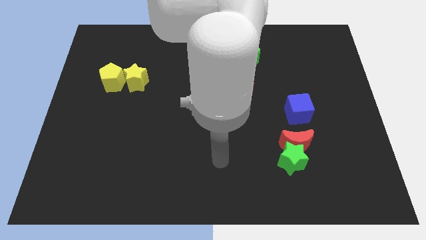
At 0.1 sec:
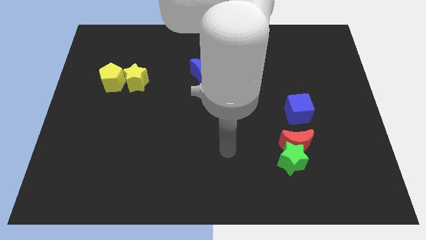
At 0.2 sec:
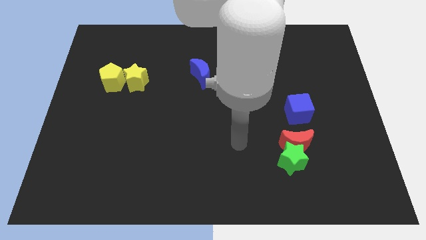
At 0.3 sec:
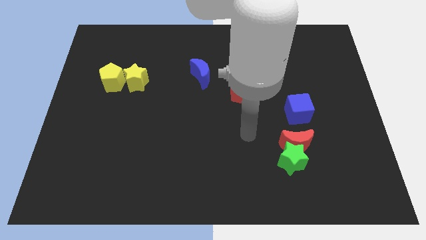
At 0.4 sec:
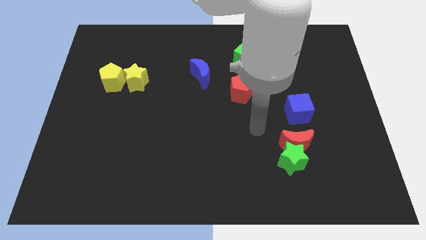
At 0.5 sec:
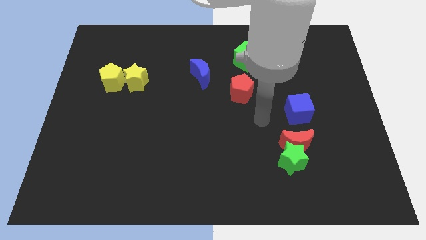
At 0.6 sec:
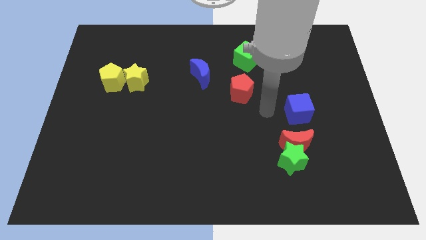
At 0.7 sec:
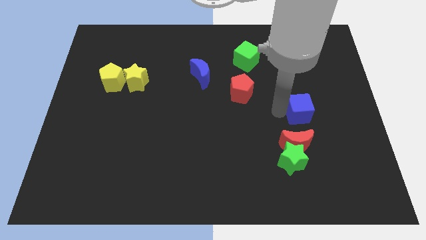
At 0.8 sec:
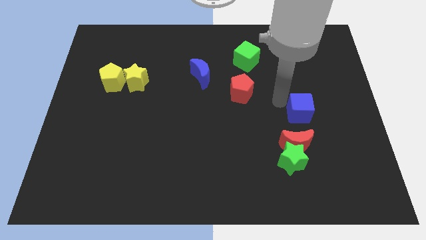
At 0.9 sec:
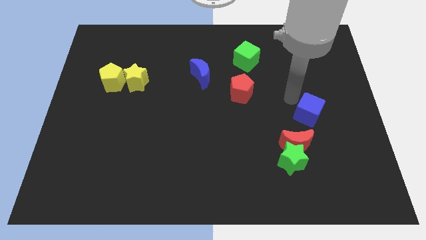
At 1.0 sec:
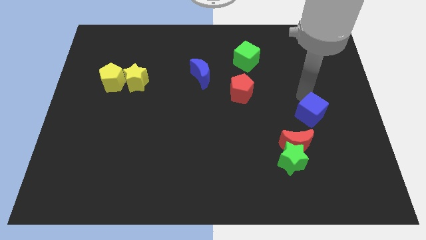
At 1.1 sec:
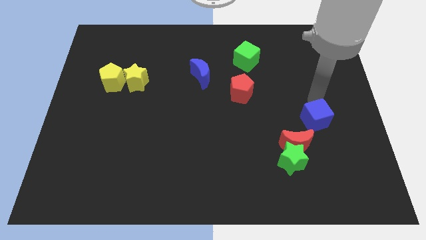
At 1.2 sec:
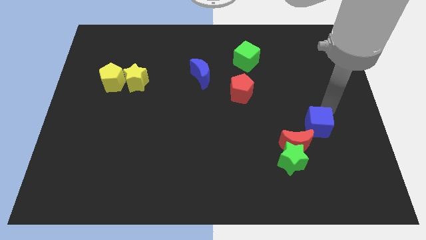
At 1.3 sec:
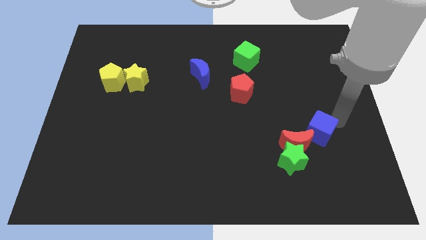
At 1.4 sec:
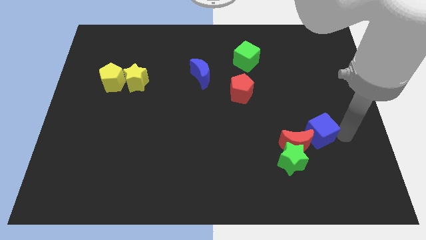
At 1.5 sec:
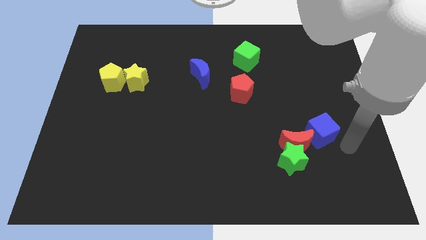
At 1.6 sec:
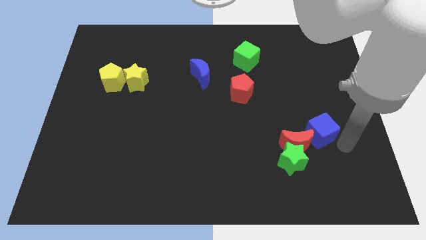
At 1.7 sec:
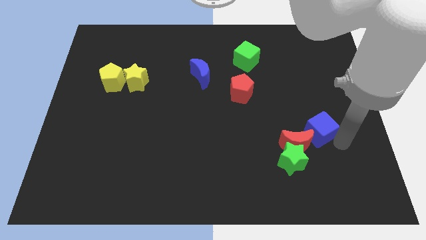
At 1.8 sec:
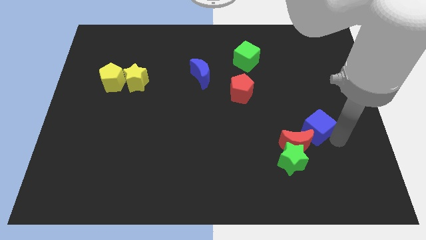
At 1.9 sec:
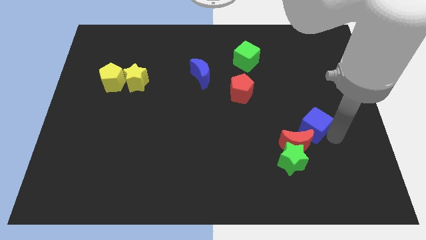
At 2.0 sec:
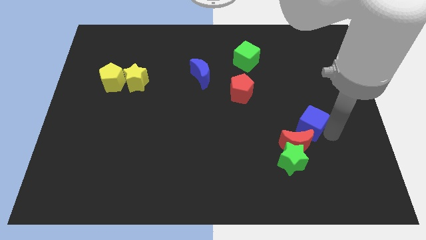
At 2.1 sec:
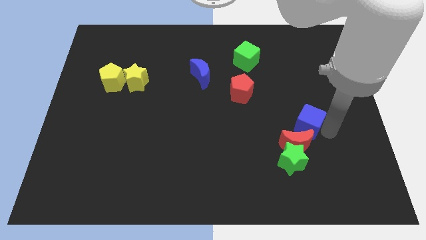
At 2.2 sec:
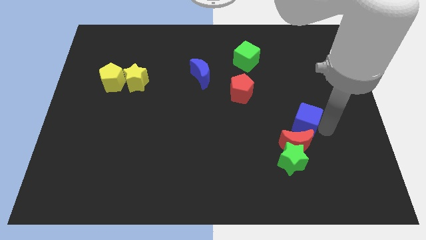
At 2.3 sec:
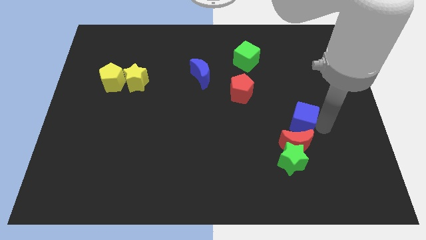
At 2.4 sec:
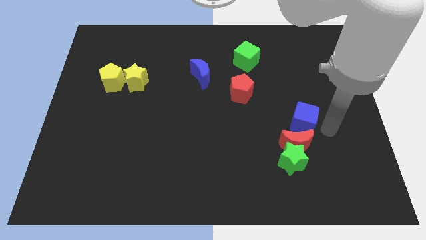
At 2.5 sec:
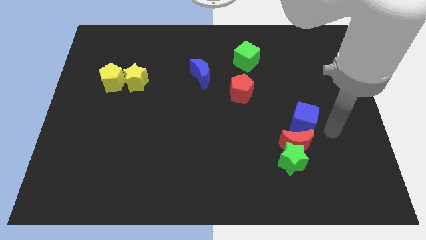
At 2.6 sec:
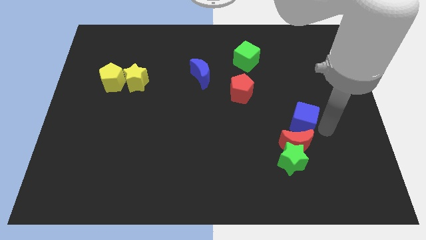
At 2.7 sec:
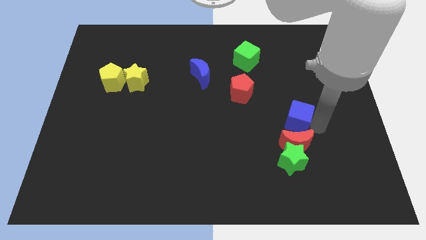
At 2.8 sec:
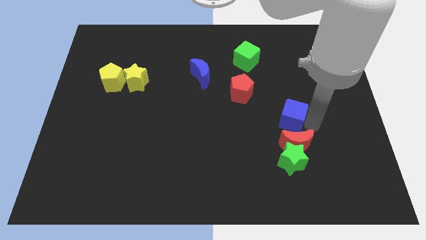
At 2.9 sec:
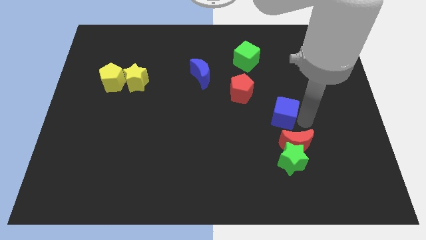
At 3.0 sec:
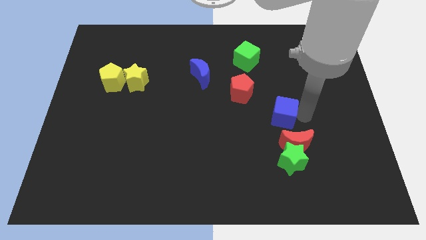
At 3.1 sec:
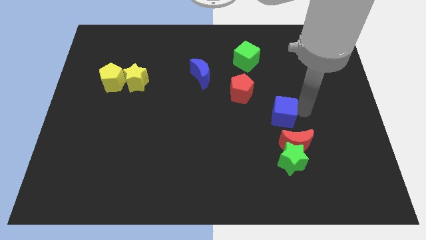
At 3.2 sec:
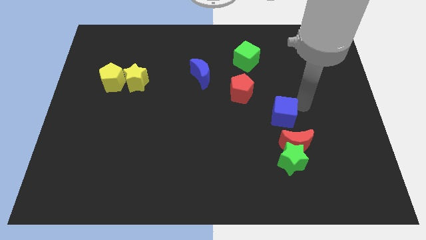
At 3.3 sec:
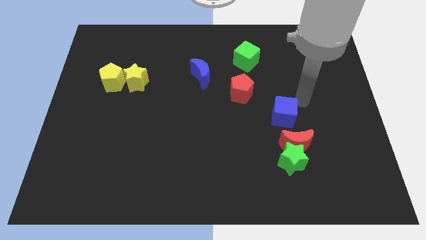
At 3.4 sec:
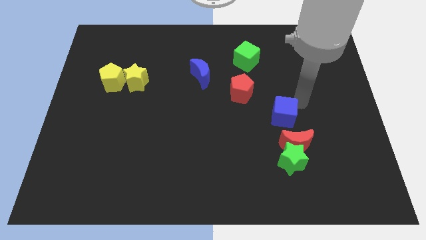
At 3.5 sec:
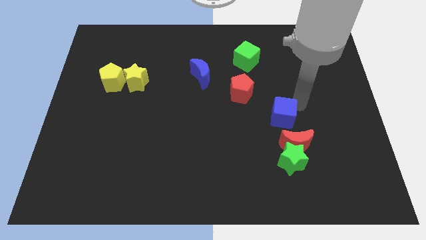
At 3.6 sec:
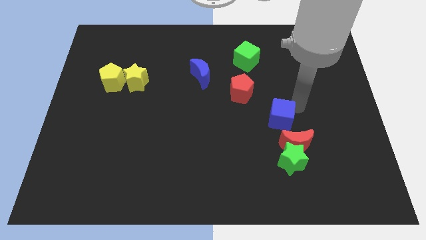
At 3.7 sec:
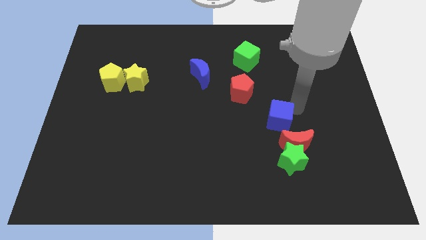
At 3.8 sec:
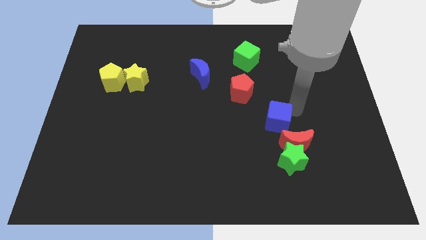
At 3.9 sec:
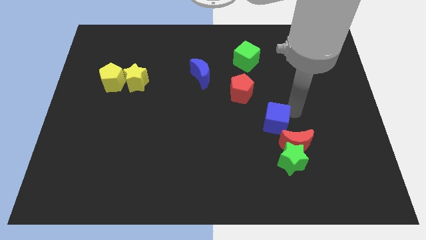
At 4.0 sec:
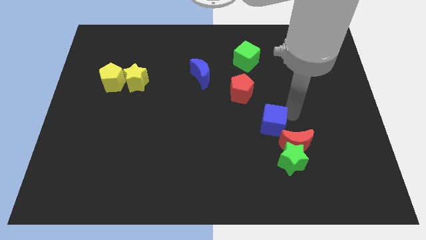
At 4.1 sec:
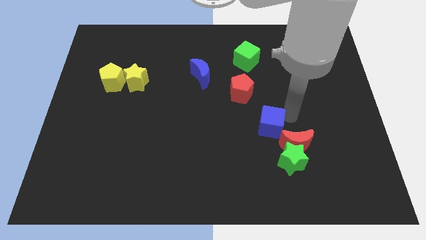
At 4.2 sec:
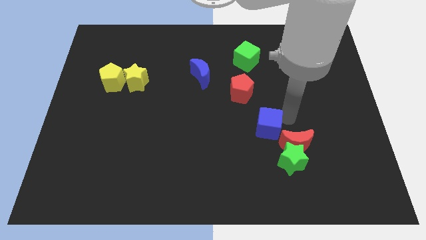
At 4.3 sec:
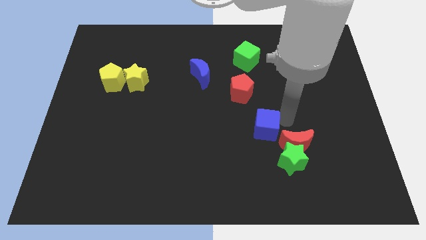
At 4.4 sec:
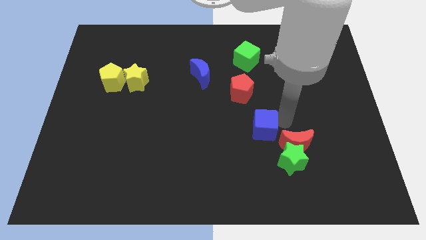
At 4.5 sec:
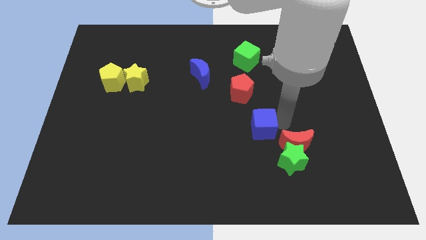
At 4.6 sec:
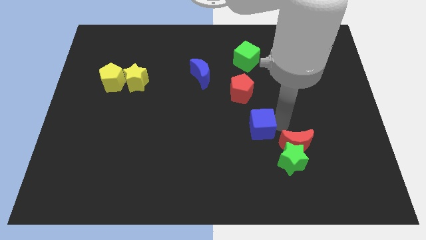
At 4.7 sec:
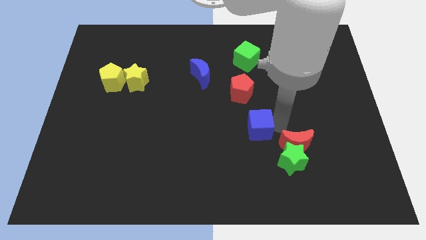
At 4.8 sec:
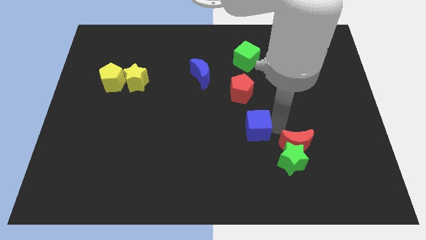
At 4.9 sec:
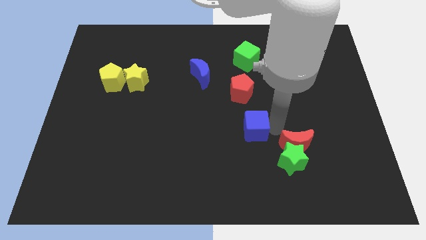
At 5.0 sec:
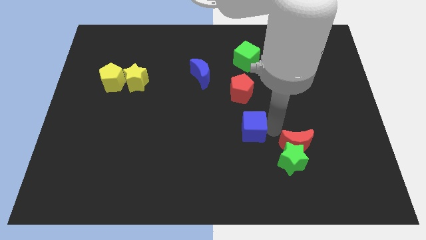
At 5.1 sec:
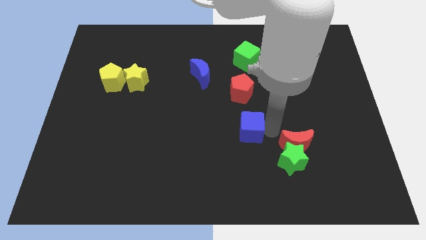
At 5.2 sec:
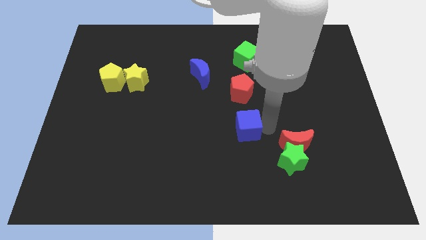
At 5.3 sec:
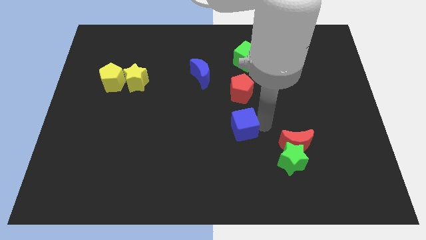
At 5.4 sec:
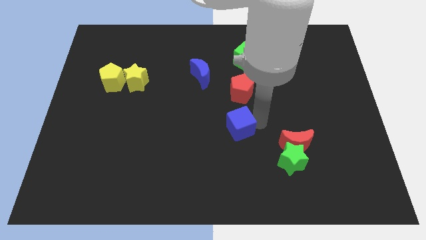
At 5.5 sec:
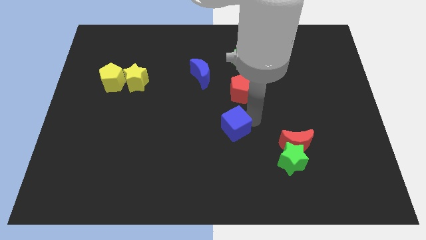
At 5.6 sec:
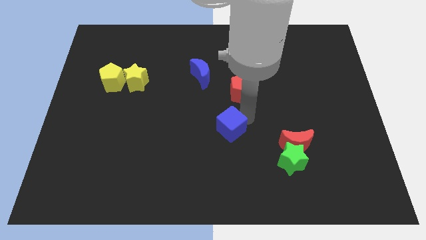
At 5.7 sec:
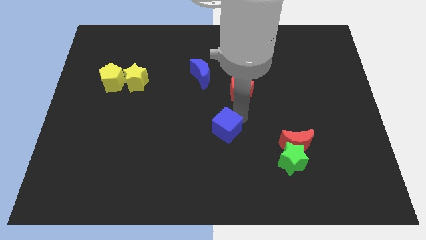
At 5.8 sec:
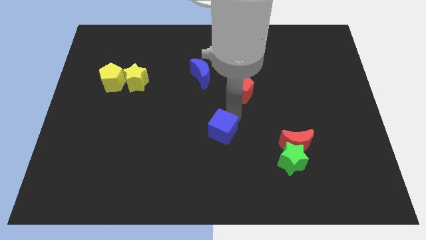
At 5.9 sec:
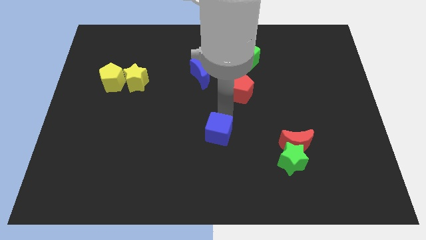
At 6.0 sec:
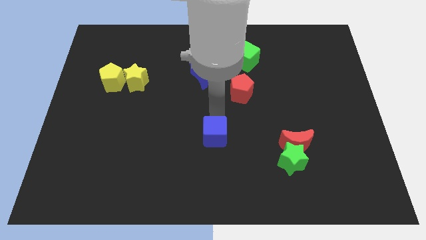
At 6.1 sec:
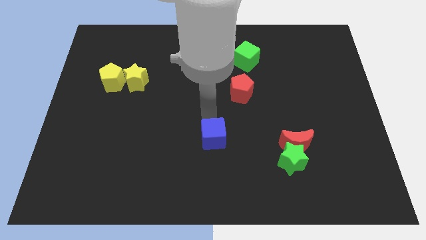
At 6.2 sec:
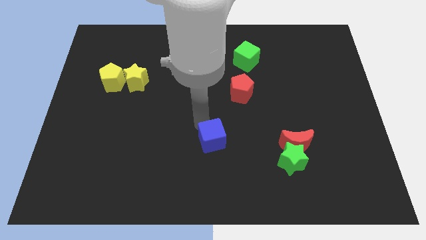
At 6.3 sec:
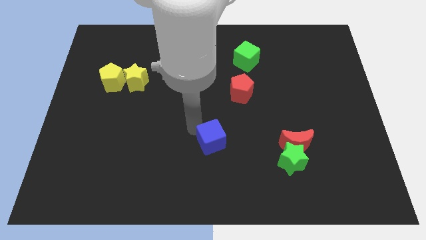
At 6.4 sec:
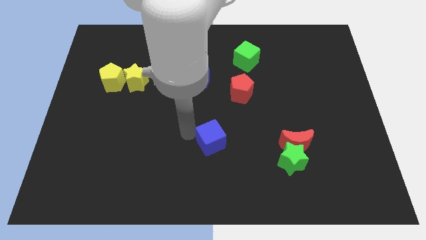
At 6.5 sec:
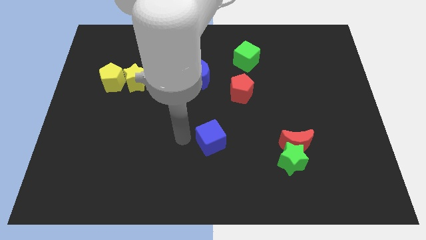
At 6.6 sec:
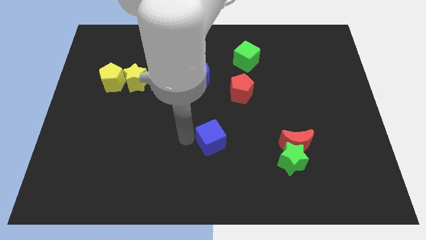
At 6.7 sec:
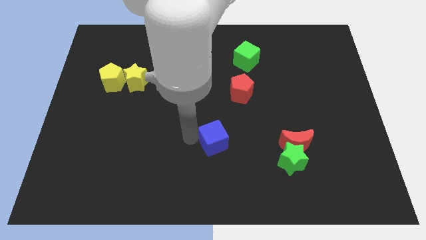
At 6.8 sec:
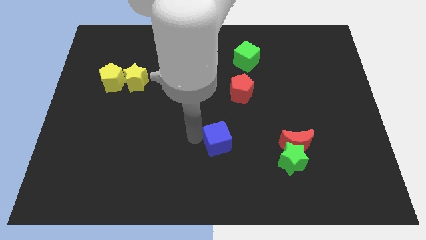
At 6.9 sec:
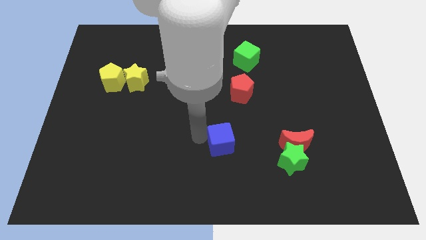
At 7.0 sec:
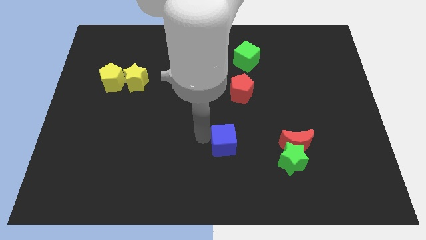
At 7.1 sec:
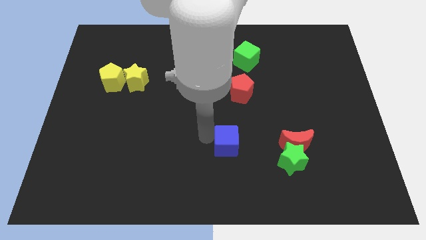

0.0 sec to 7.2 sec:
push the blue cube to the left side of the green star
